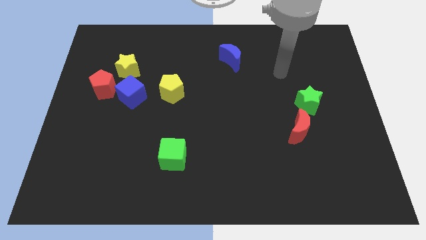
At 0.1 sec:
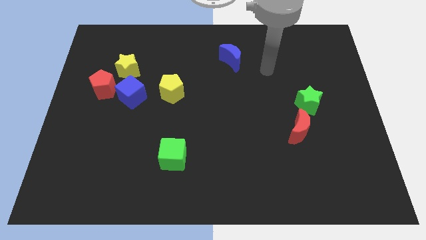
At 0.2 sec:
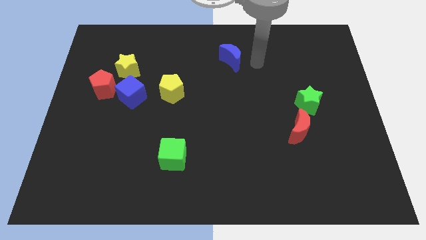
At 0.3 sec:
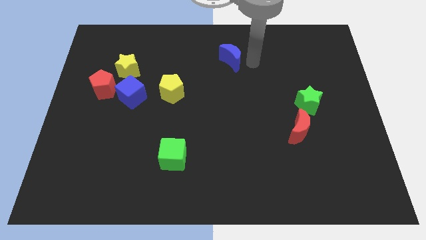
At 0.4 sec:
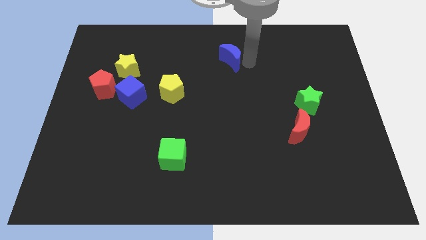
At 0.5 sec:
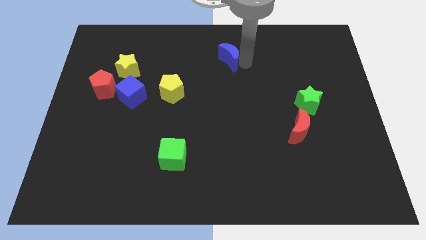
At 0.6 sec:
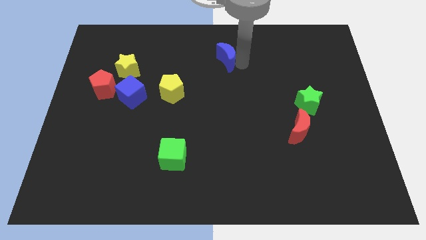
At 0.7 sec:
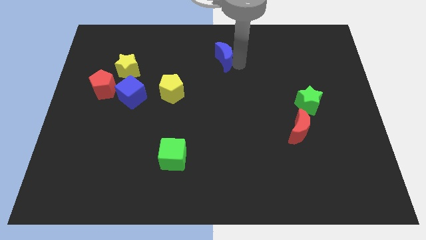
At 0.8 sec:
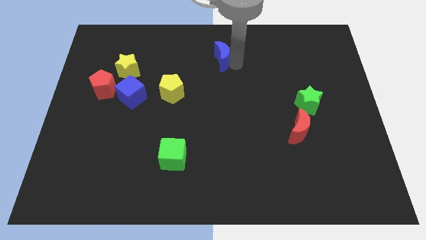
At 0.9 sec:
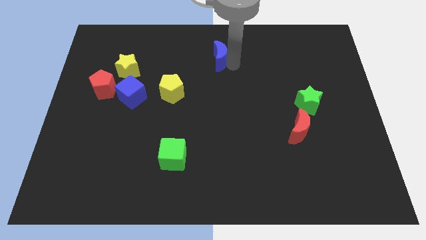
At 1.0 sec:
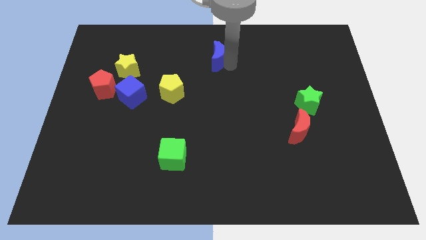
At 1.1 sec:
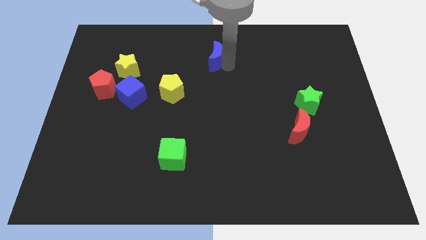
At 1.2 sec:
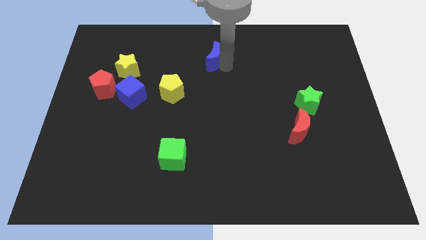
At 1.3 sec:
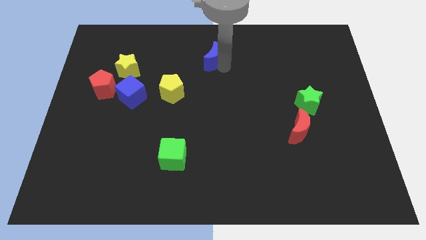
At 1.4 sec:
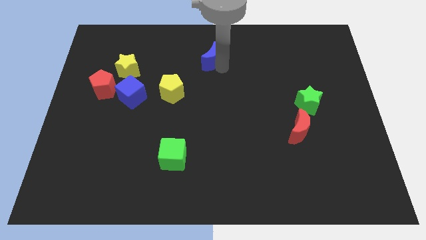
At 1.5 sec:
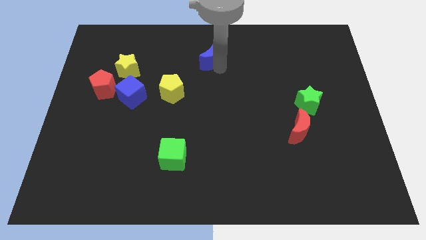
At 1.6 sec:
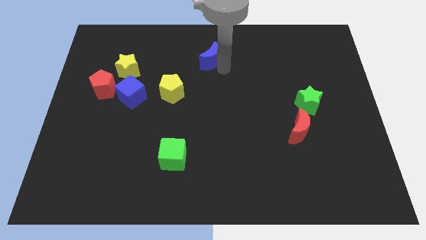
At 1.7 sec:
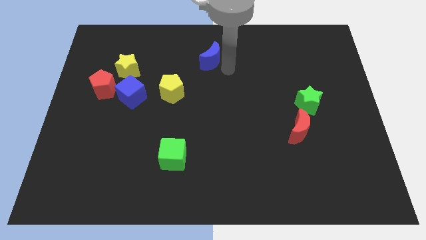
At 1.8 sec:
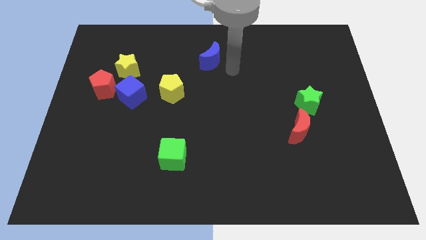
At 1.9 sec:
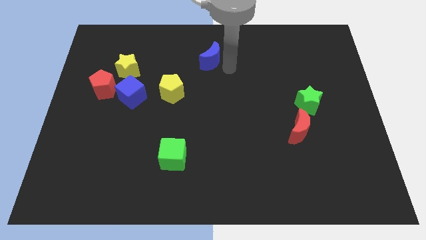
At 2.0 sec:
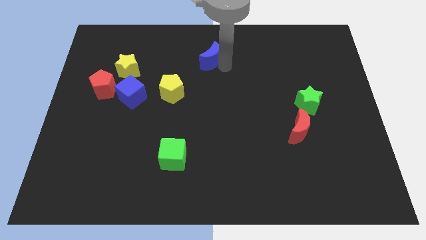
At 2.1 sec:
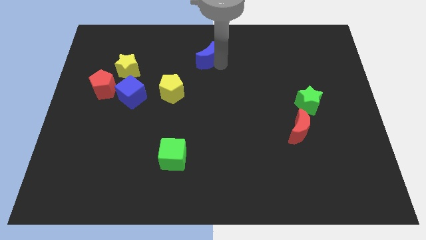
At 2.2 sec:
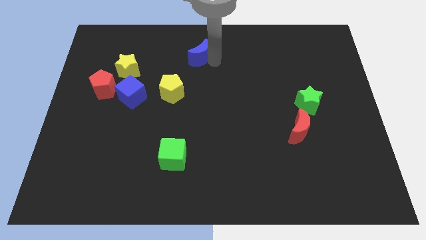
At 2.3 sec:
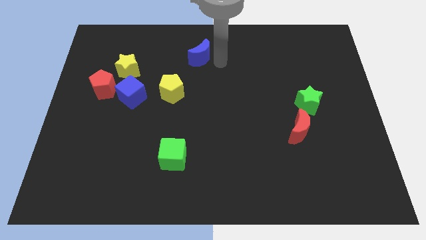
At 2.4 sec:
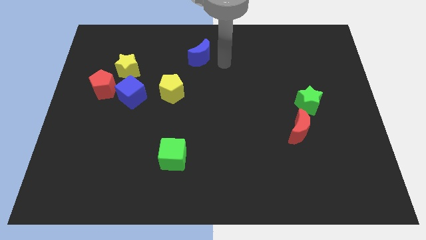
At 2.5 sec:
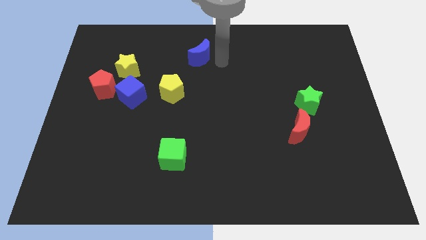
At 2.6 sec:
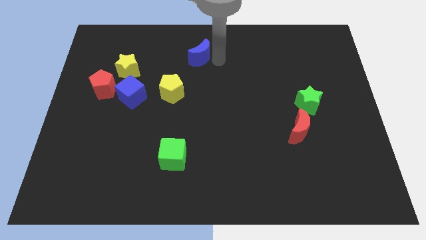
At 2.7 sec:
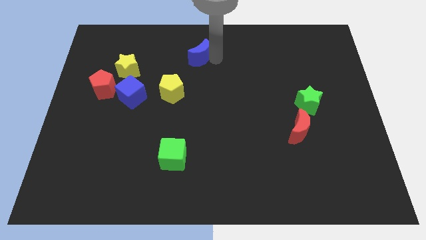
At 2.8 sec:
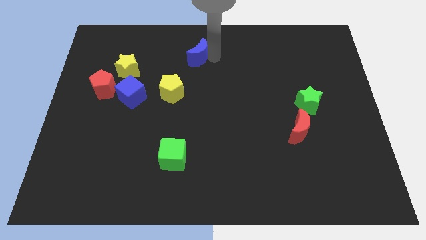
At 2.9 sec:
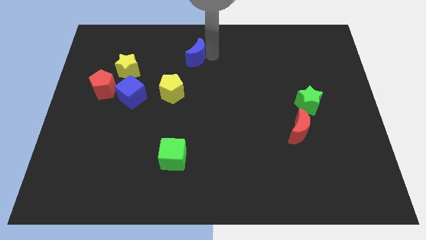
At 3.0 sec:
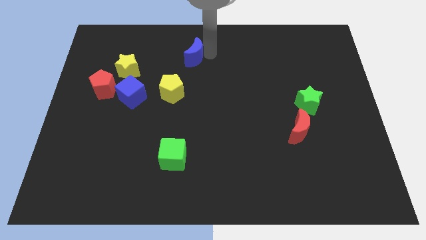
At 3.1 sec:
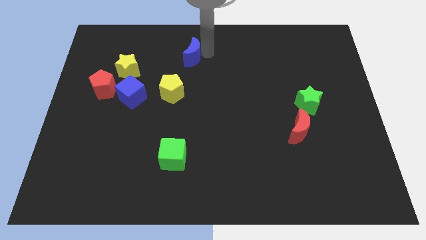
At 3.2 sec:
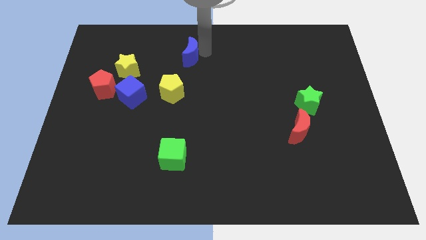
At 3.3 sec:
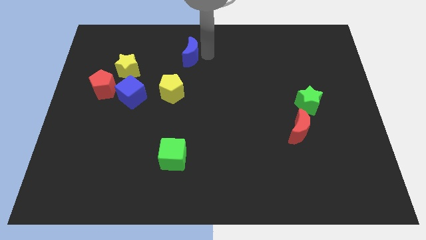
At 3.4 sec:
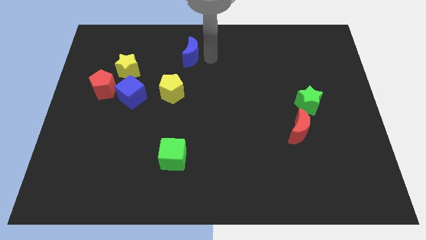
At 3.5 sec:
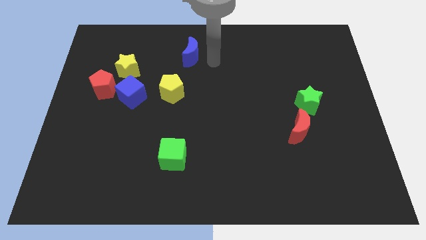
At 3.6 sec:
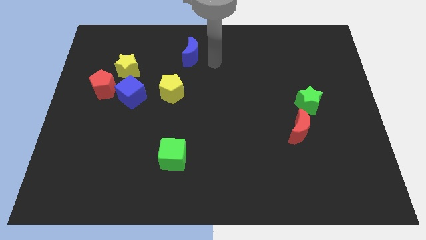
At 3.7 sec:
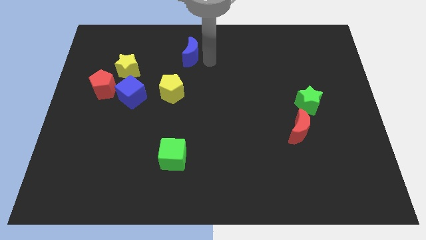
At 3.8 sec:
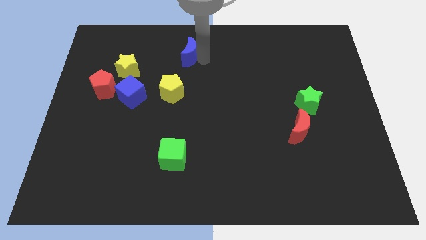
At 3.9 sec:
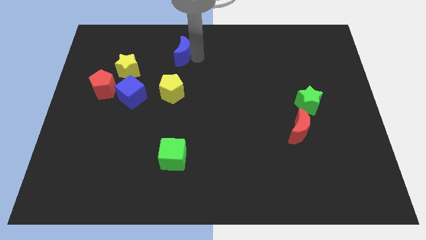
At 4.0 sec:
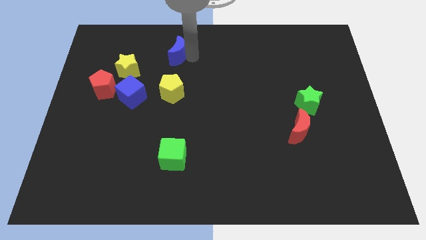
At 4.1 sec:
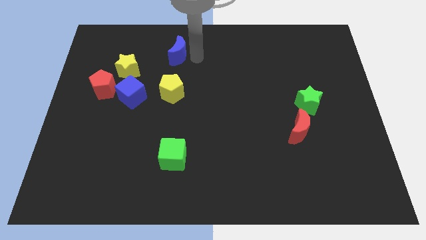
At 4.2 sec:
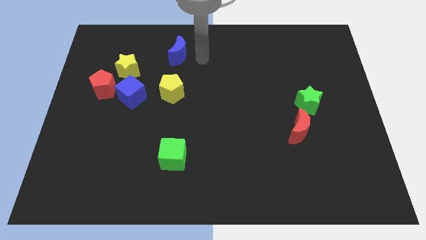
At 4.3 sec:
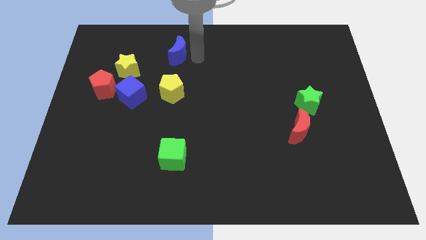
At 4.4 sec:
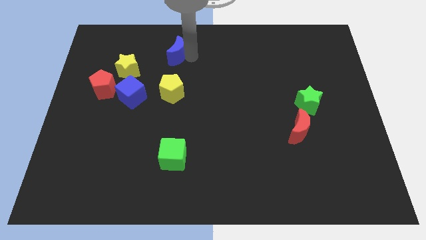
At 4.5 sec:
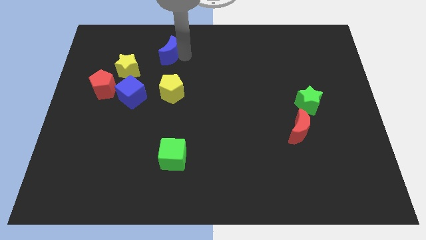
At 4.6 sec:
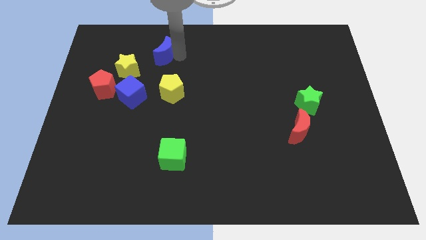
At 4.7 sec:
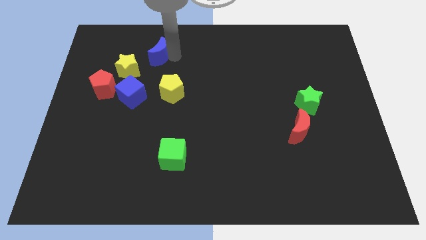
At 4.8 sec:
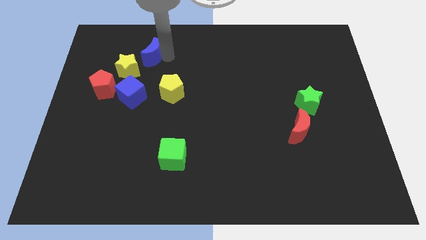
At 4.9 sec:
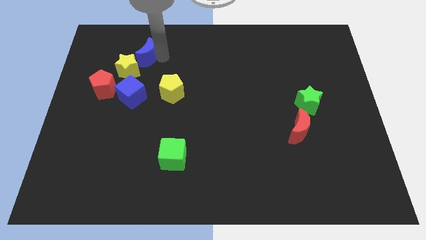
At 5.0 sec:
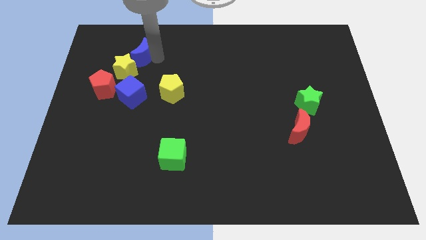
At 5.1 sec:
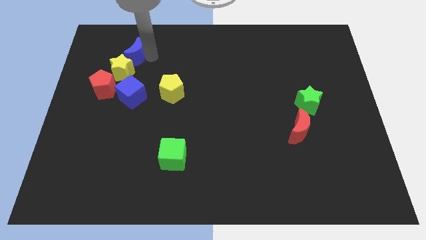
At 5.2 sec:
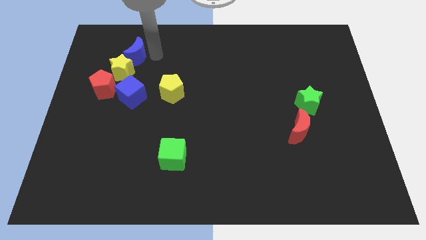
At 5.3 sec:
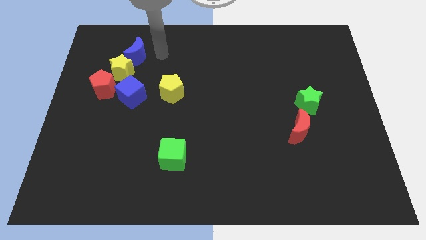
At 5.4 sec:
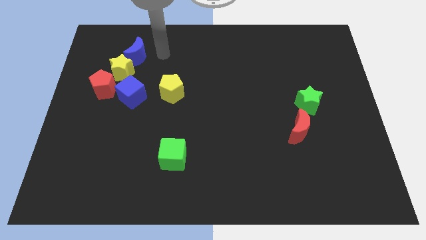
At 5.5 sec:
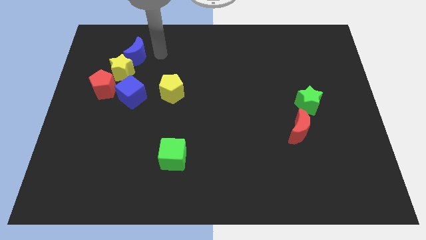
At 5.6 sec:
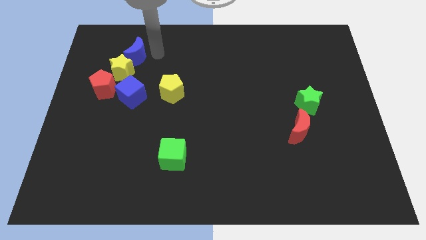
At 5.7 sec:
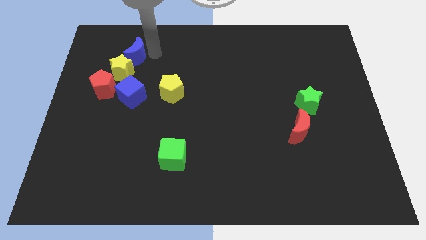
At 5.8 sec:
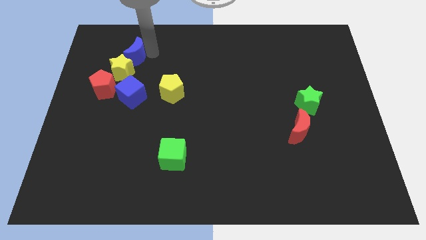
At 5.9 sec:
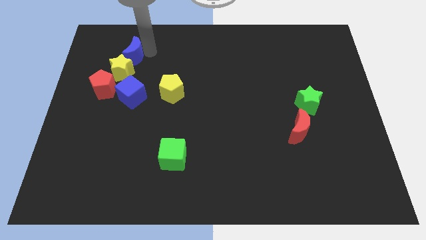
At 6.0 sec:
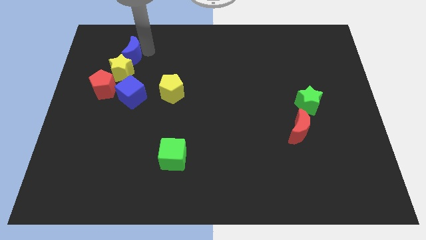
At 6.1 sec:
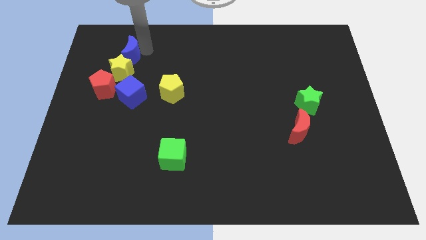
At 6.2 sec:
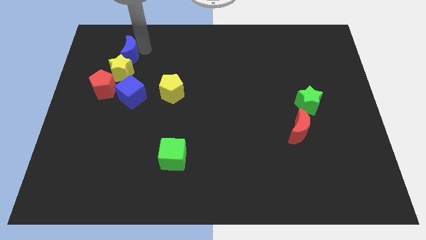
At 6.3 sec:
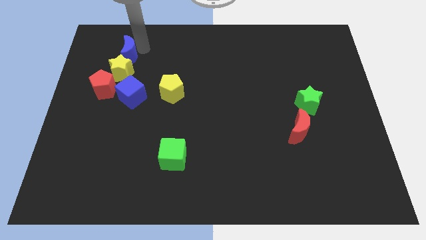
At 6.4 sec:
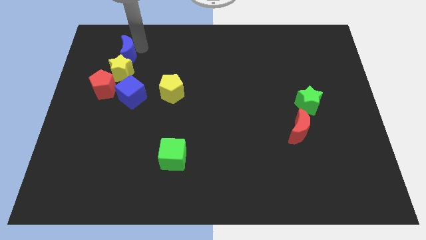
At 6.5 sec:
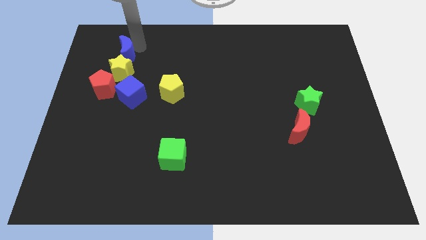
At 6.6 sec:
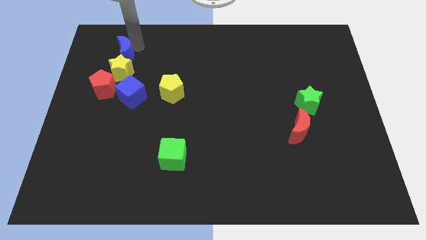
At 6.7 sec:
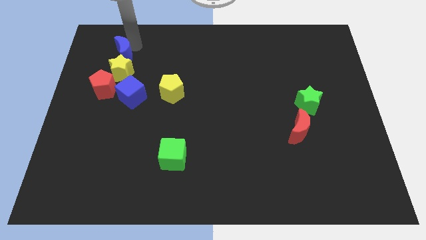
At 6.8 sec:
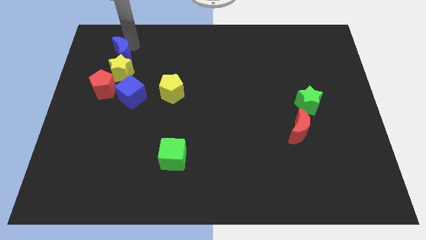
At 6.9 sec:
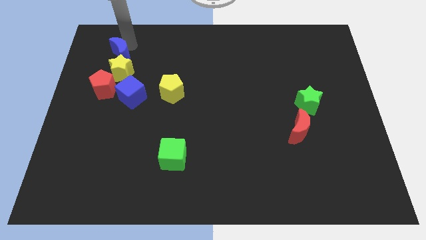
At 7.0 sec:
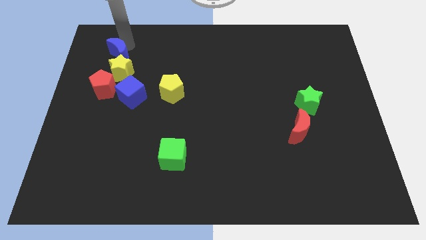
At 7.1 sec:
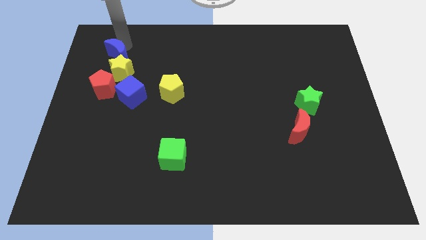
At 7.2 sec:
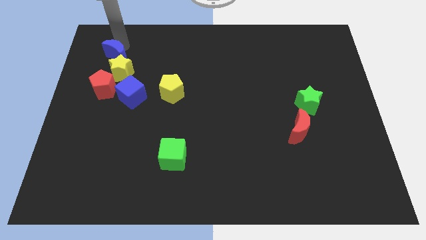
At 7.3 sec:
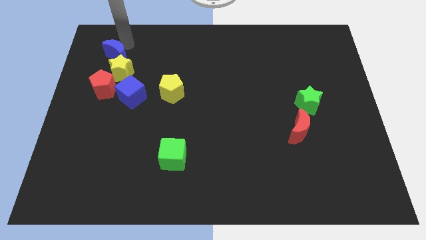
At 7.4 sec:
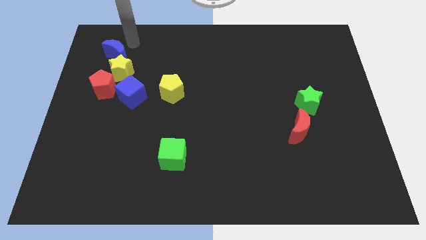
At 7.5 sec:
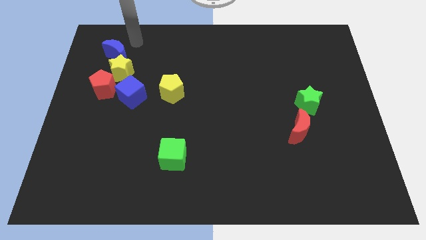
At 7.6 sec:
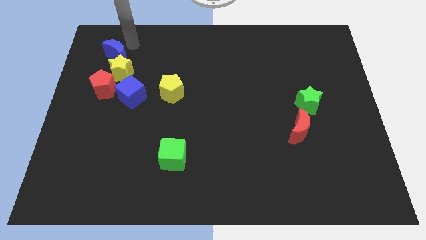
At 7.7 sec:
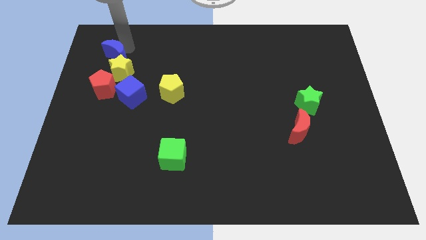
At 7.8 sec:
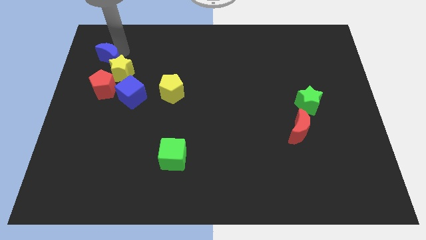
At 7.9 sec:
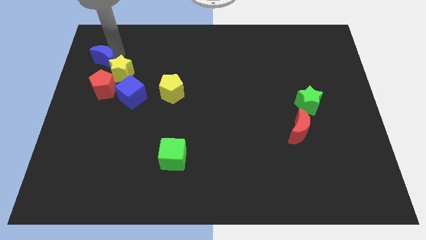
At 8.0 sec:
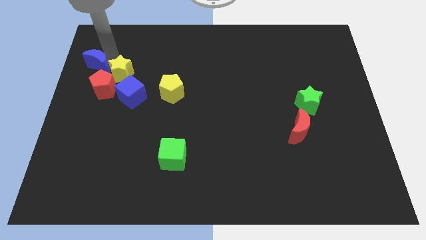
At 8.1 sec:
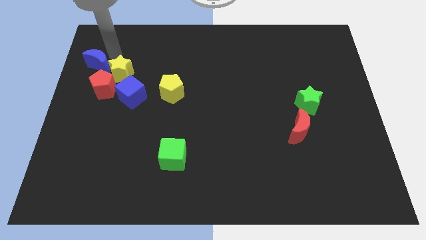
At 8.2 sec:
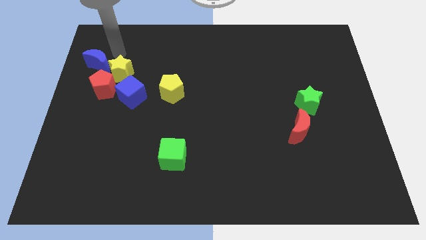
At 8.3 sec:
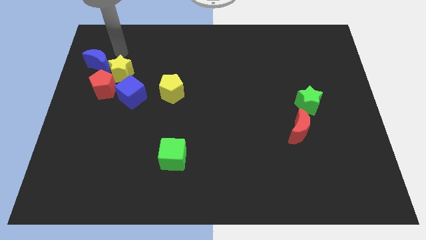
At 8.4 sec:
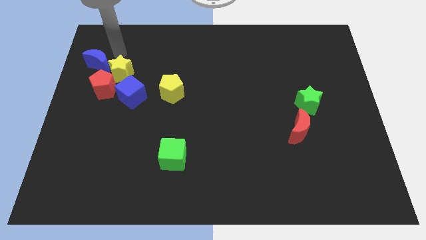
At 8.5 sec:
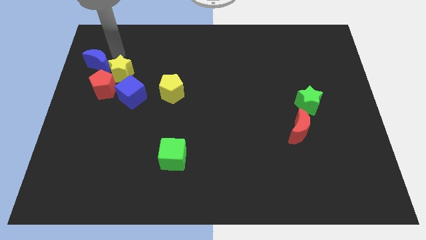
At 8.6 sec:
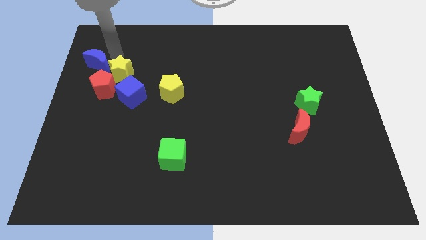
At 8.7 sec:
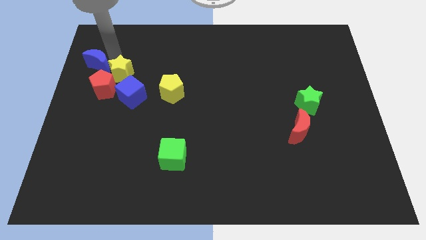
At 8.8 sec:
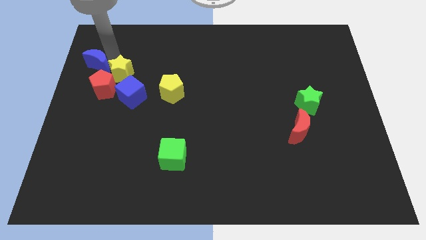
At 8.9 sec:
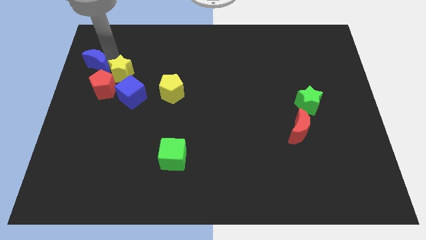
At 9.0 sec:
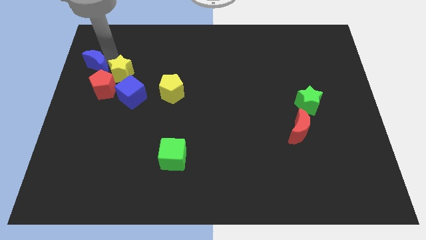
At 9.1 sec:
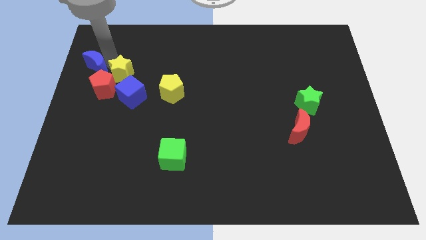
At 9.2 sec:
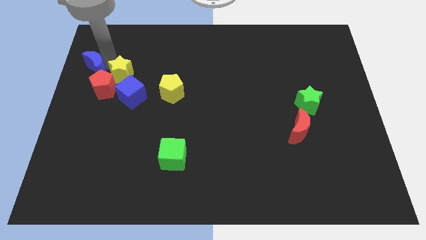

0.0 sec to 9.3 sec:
move the blue moon to the center left
